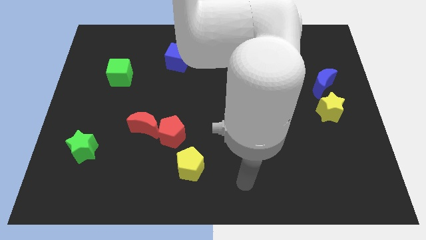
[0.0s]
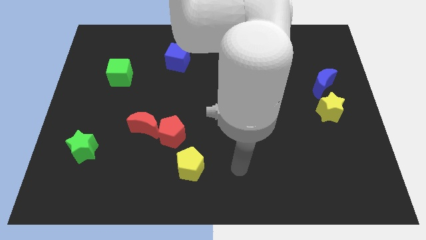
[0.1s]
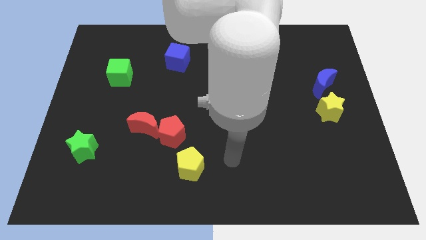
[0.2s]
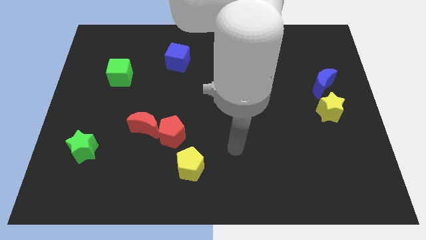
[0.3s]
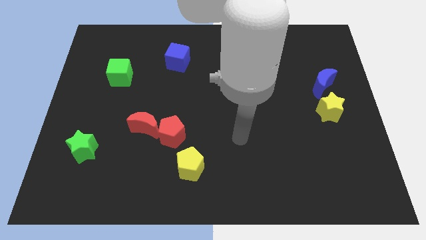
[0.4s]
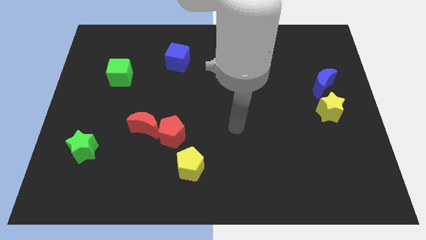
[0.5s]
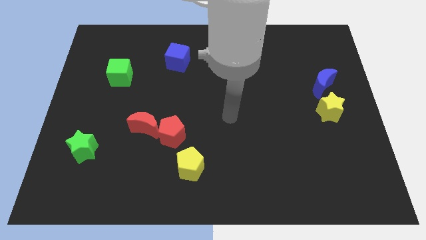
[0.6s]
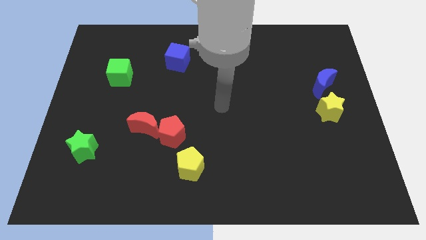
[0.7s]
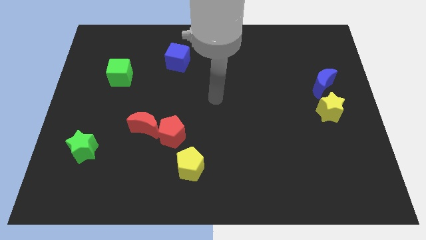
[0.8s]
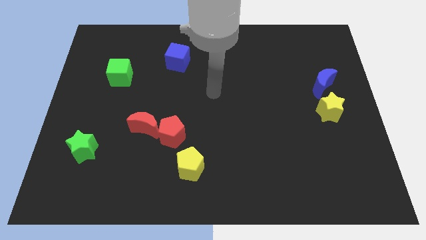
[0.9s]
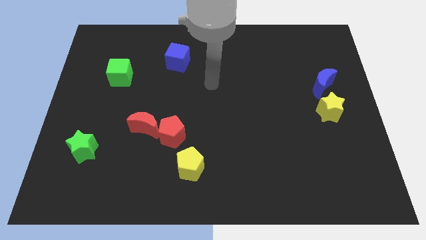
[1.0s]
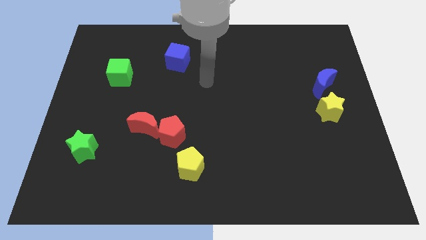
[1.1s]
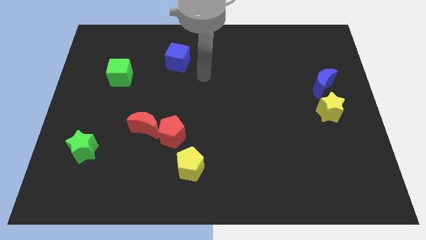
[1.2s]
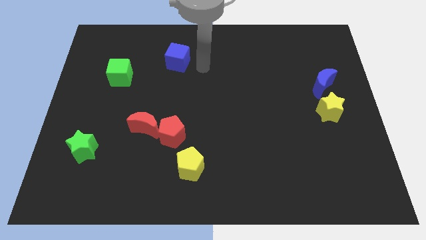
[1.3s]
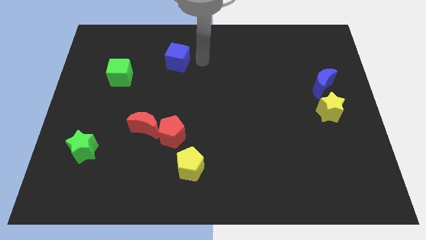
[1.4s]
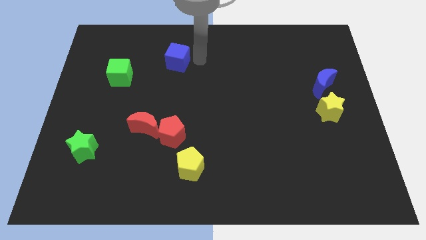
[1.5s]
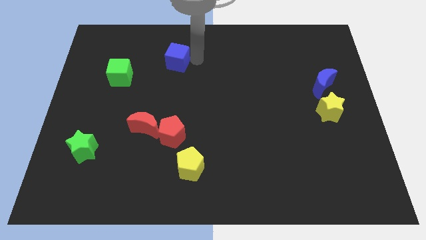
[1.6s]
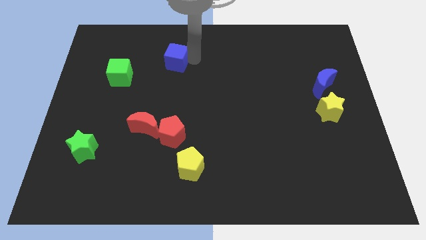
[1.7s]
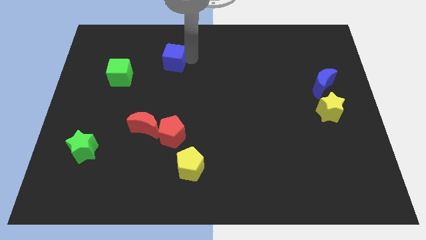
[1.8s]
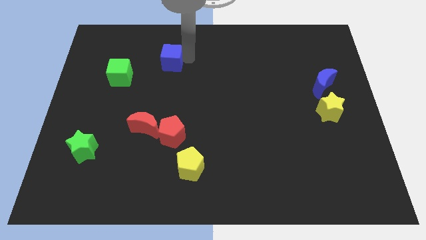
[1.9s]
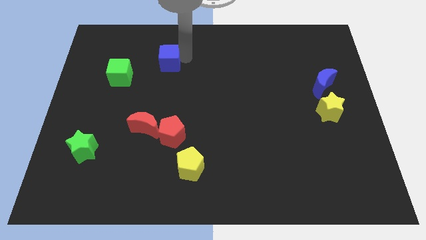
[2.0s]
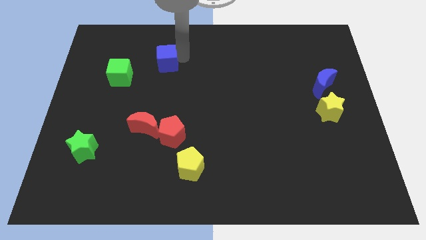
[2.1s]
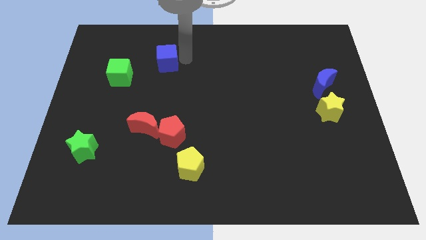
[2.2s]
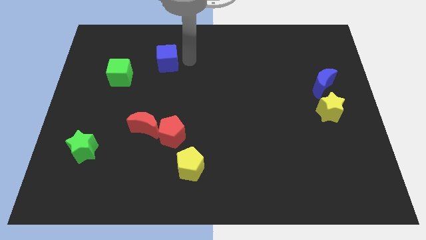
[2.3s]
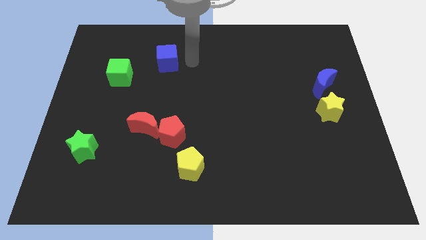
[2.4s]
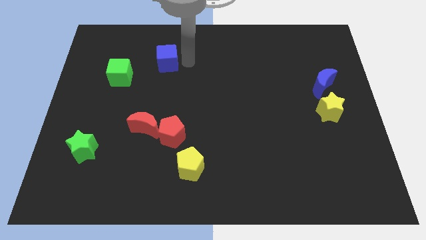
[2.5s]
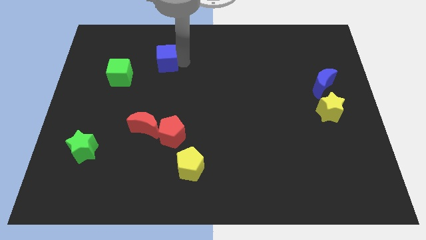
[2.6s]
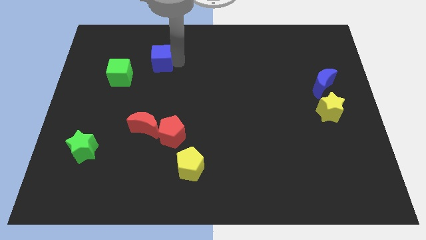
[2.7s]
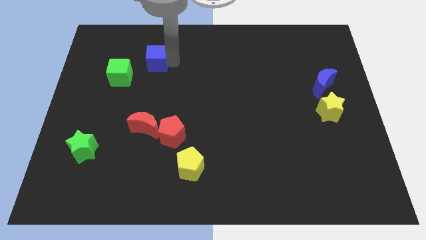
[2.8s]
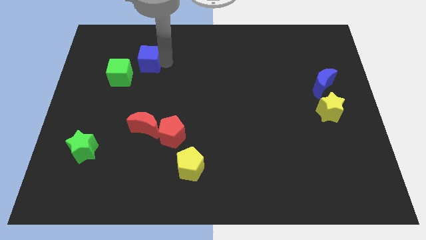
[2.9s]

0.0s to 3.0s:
move the blue cube to the left a little bit

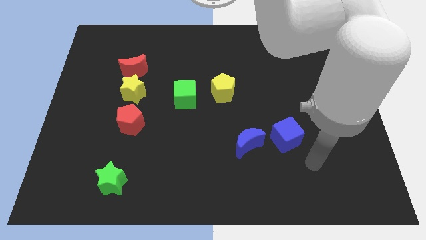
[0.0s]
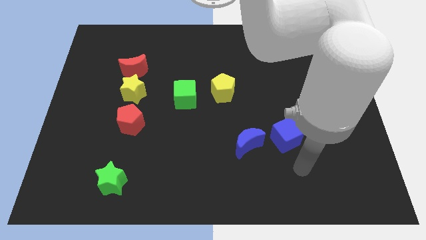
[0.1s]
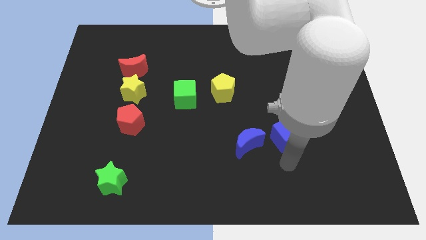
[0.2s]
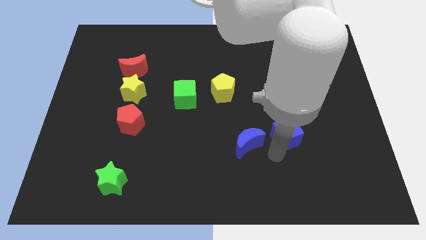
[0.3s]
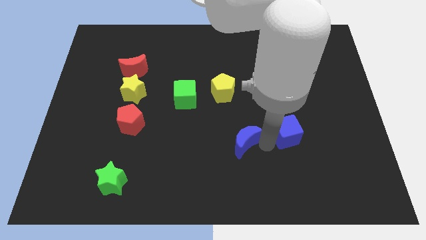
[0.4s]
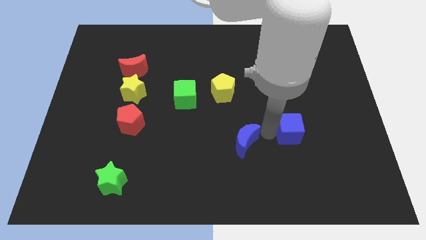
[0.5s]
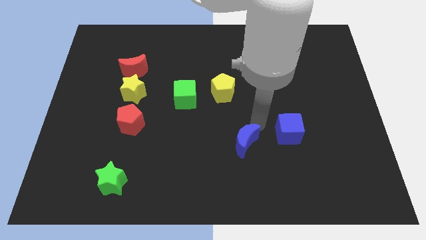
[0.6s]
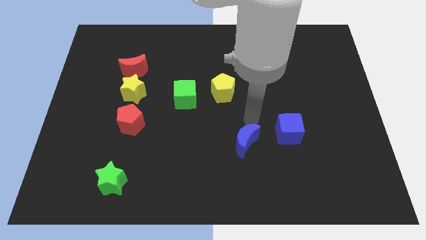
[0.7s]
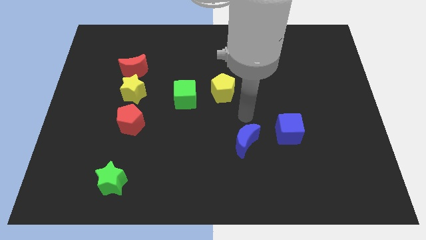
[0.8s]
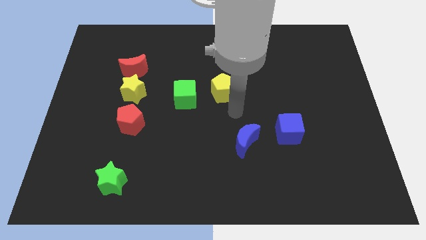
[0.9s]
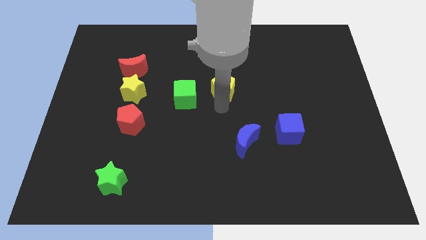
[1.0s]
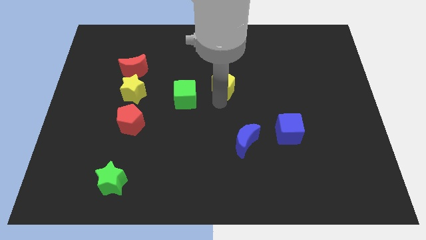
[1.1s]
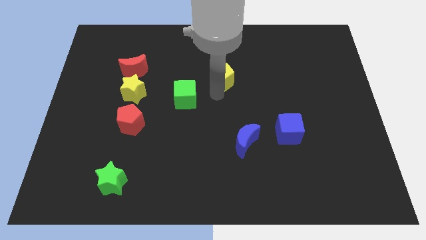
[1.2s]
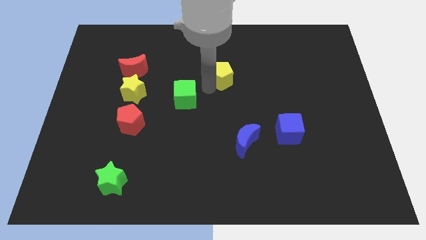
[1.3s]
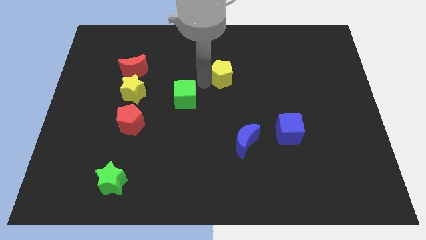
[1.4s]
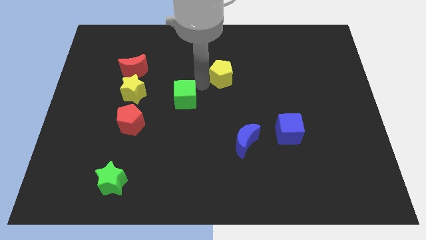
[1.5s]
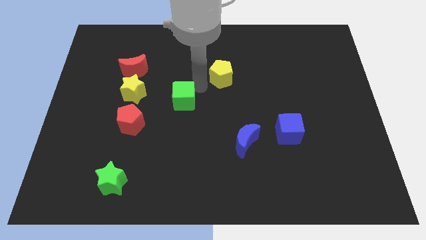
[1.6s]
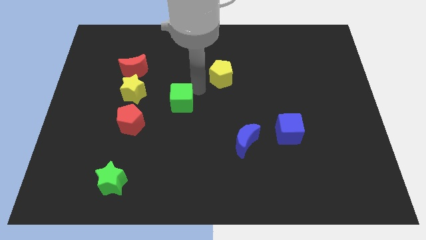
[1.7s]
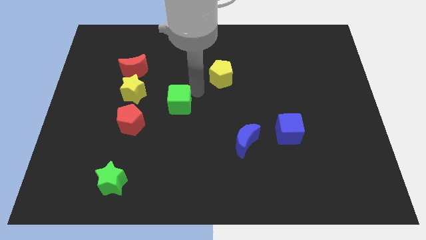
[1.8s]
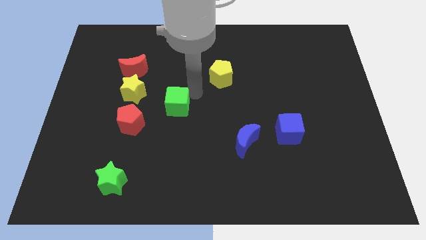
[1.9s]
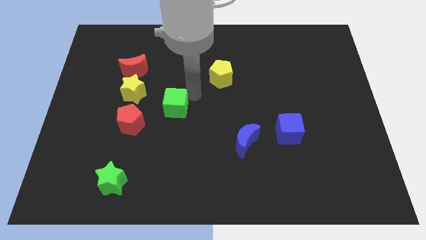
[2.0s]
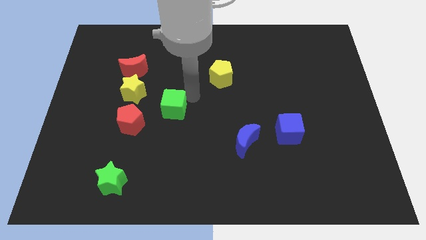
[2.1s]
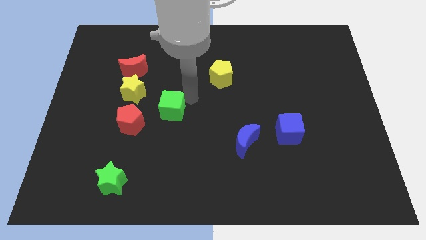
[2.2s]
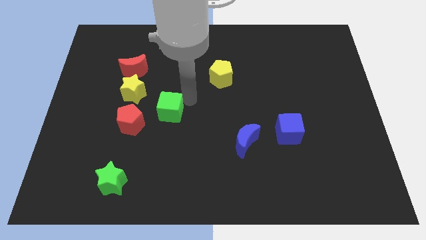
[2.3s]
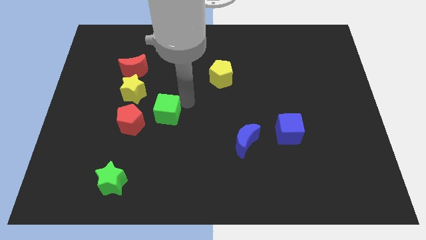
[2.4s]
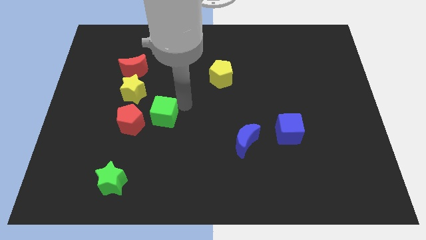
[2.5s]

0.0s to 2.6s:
move the green cube down and left a little bit

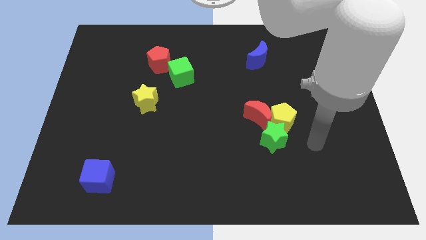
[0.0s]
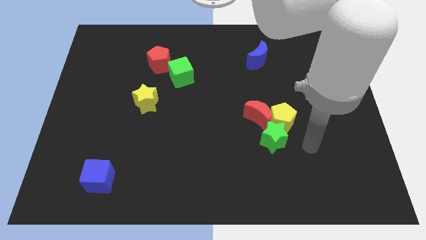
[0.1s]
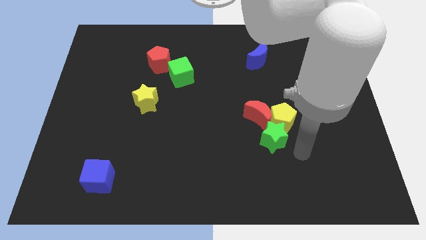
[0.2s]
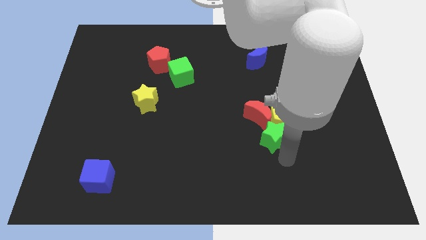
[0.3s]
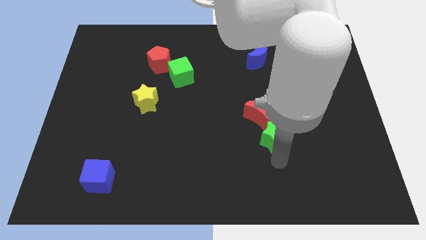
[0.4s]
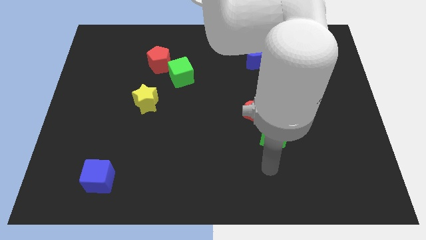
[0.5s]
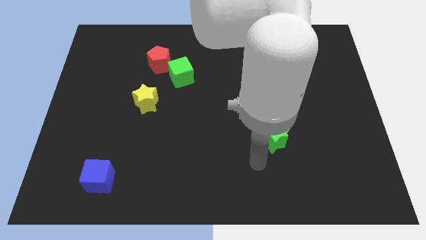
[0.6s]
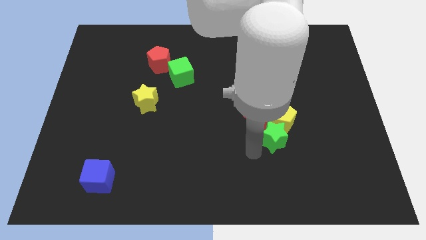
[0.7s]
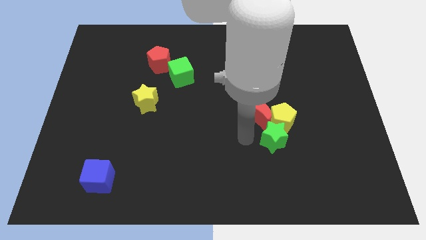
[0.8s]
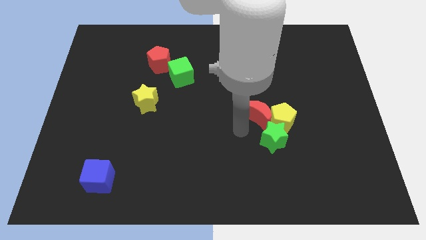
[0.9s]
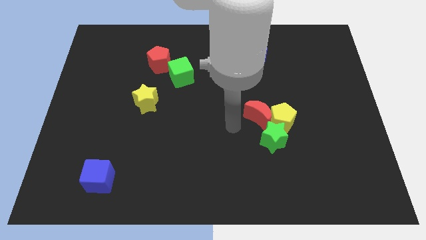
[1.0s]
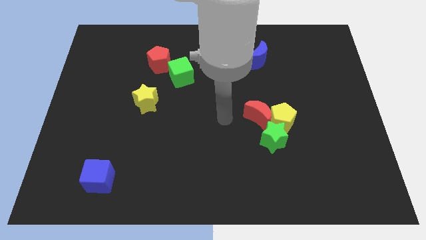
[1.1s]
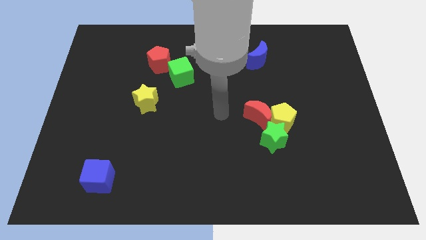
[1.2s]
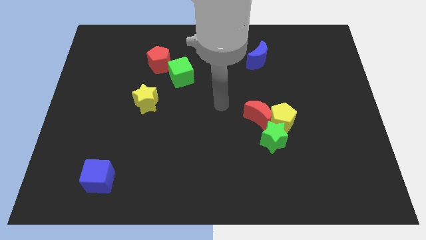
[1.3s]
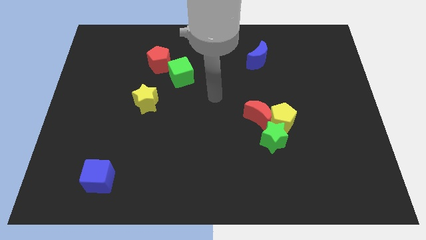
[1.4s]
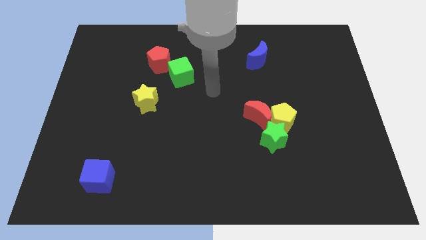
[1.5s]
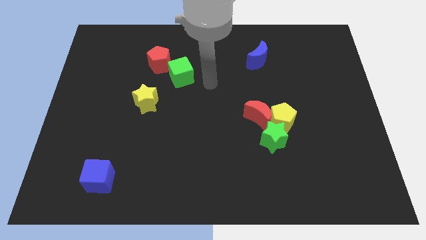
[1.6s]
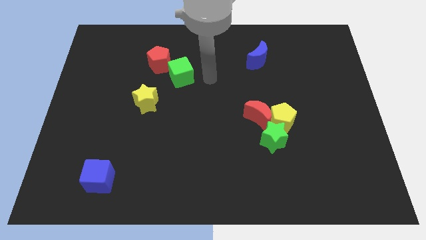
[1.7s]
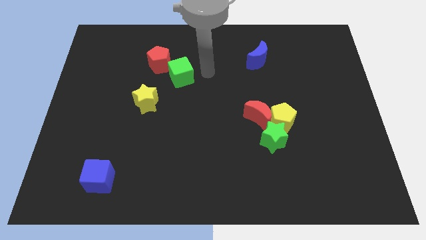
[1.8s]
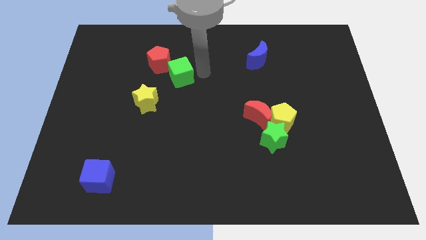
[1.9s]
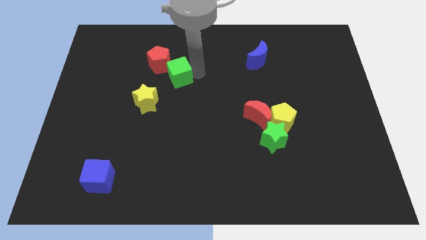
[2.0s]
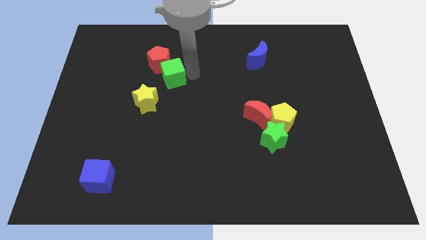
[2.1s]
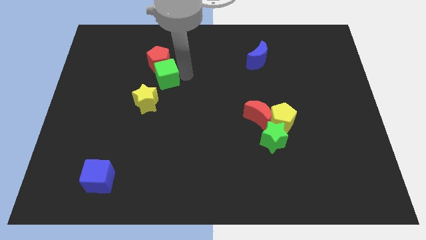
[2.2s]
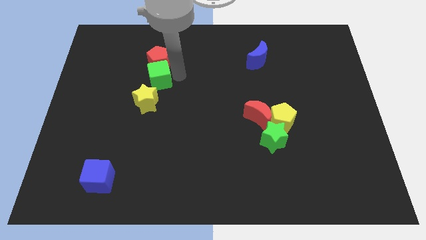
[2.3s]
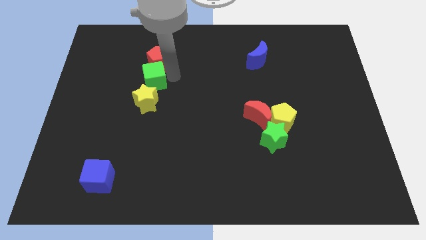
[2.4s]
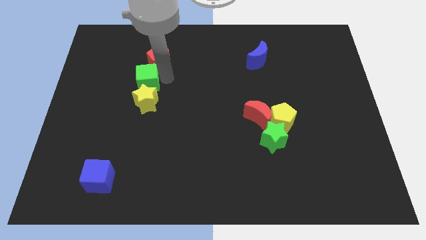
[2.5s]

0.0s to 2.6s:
push the green cube to the left a bit
